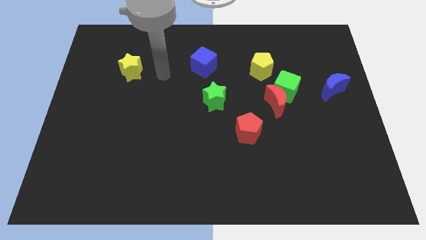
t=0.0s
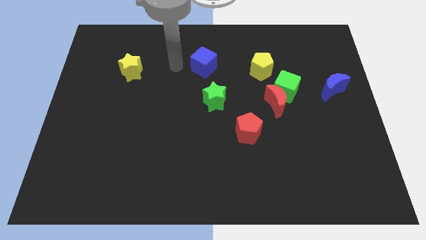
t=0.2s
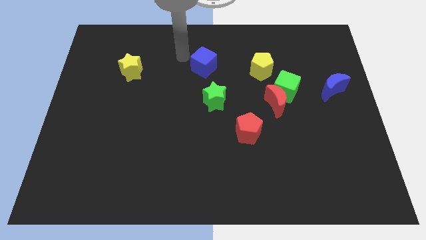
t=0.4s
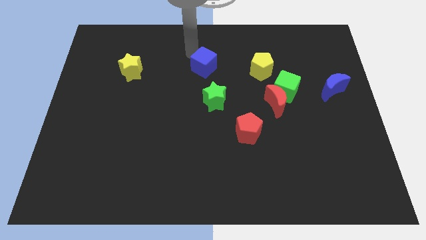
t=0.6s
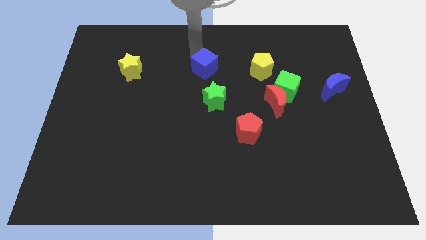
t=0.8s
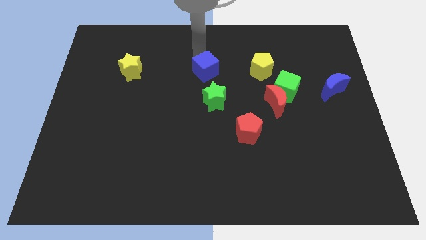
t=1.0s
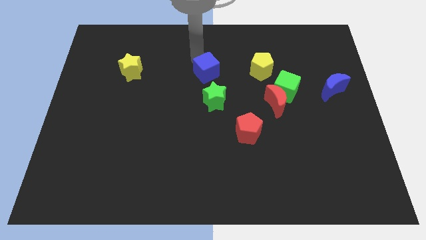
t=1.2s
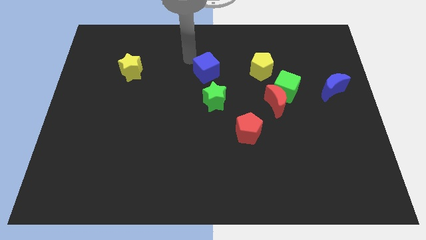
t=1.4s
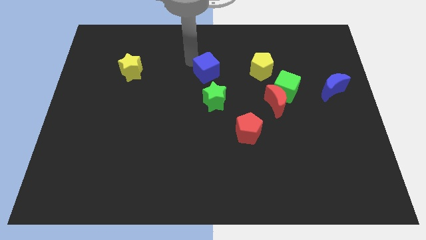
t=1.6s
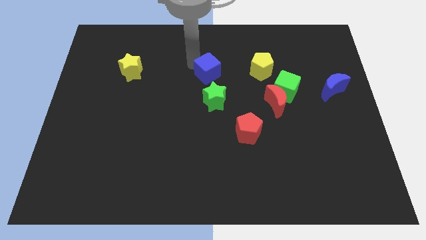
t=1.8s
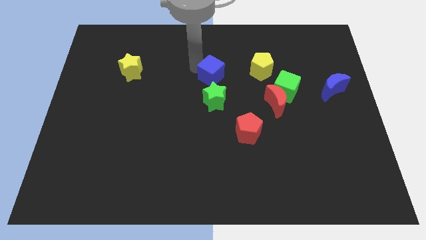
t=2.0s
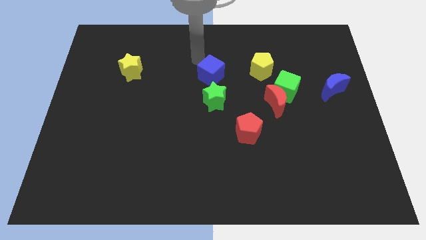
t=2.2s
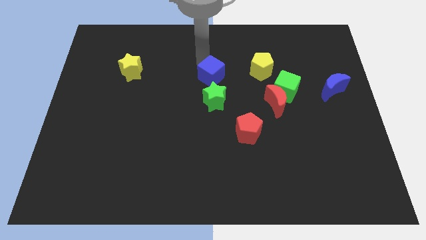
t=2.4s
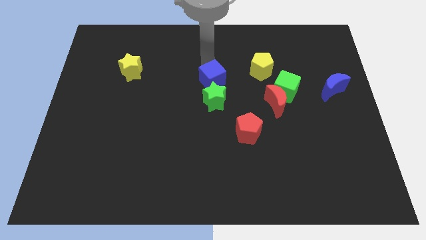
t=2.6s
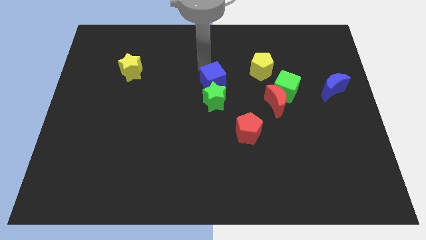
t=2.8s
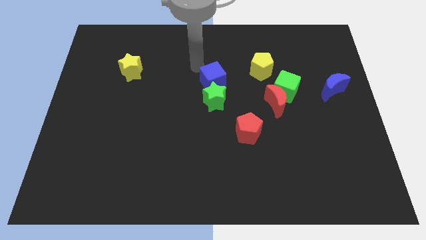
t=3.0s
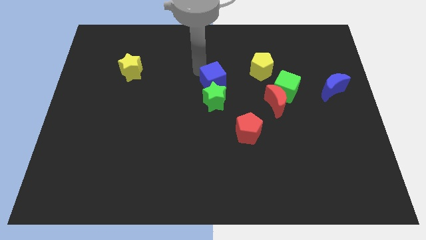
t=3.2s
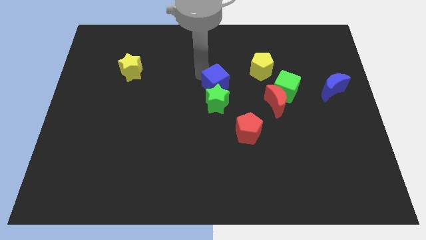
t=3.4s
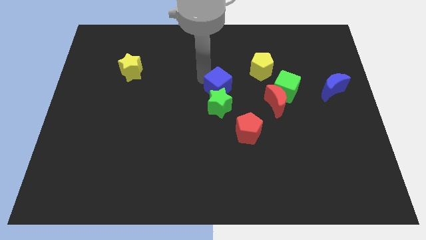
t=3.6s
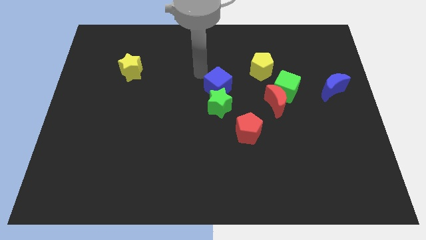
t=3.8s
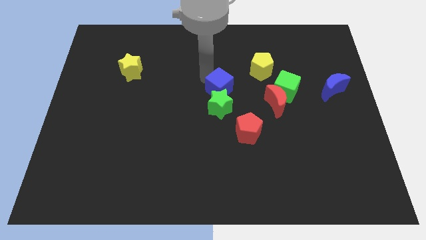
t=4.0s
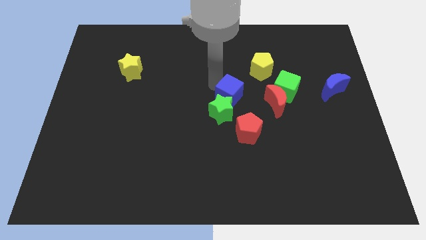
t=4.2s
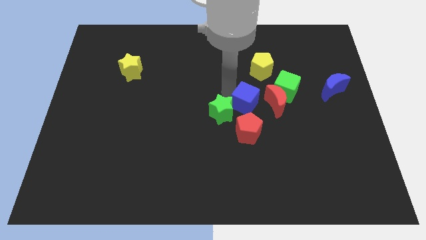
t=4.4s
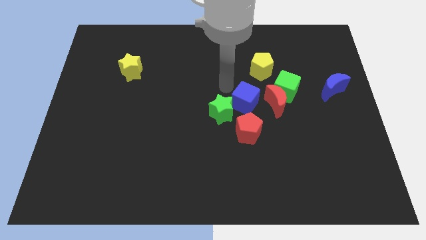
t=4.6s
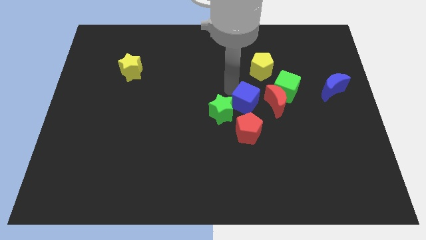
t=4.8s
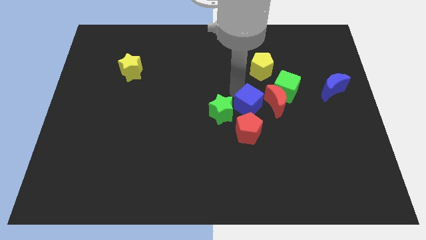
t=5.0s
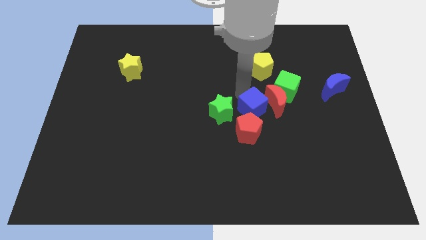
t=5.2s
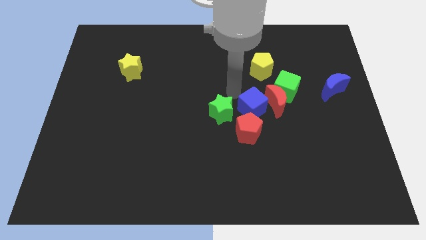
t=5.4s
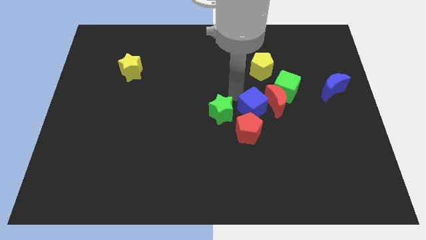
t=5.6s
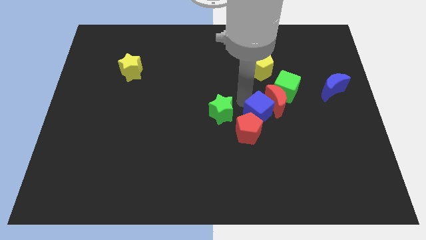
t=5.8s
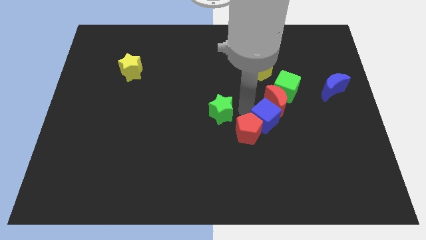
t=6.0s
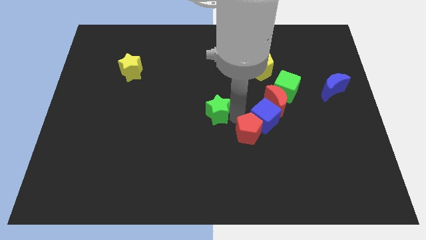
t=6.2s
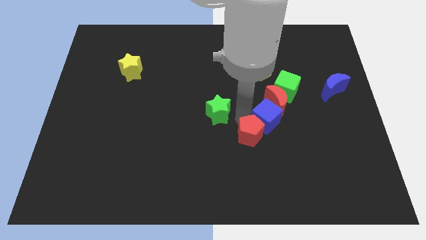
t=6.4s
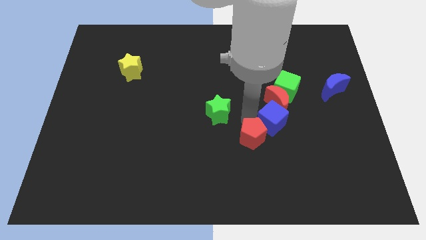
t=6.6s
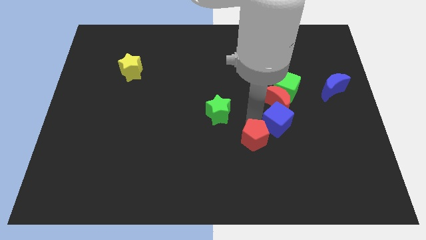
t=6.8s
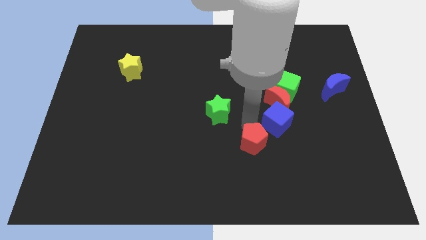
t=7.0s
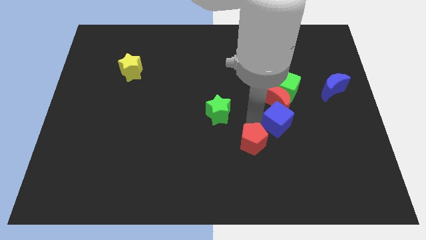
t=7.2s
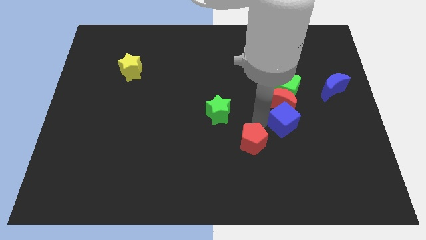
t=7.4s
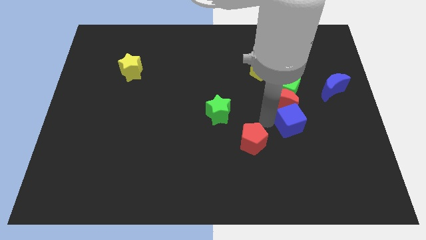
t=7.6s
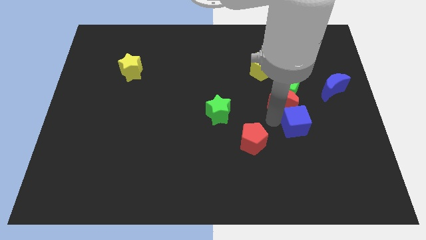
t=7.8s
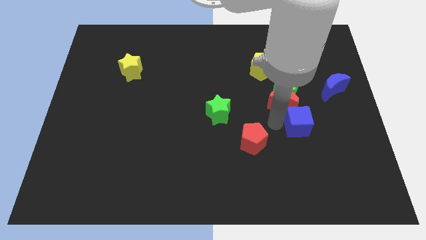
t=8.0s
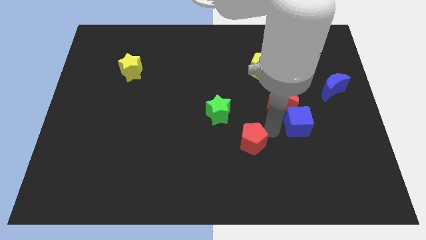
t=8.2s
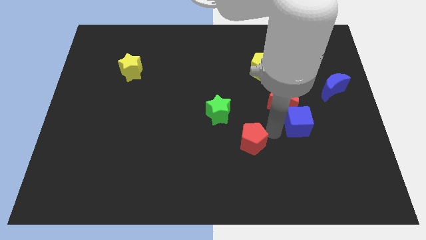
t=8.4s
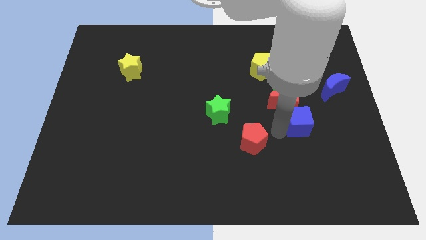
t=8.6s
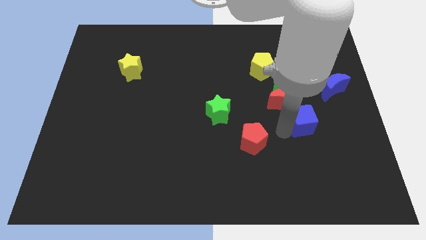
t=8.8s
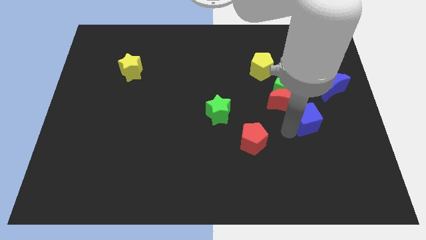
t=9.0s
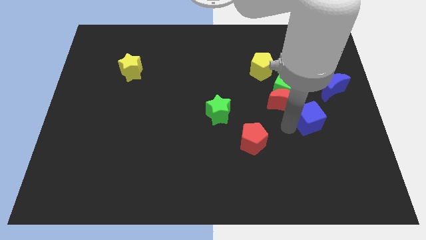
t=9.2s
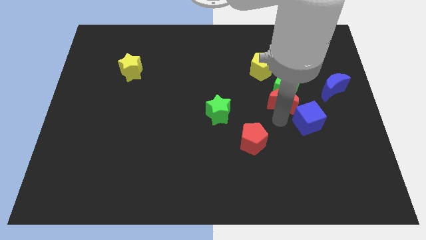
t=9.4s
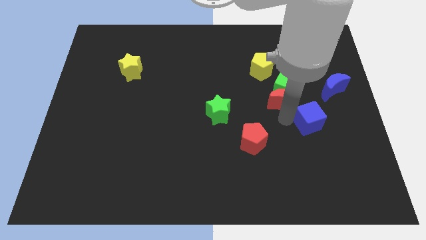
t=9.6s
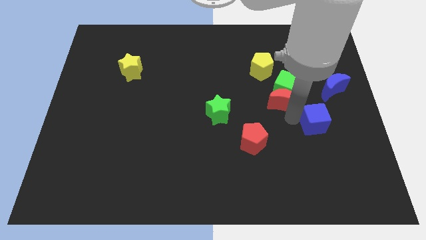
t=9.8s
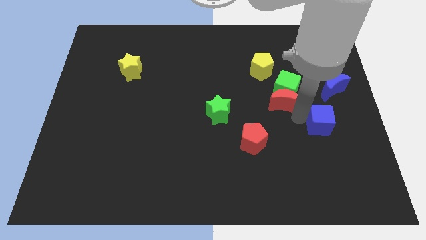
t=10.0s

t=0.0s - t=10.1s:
move the blue cube below the blue moon

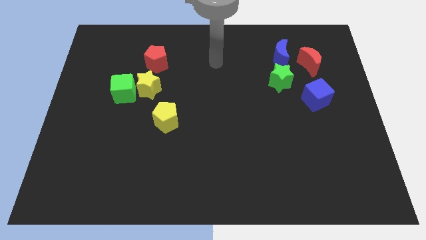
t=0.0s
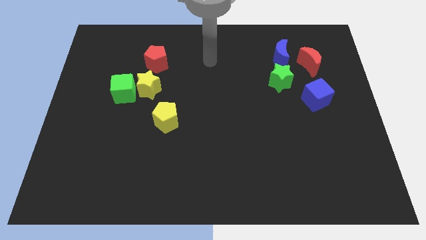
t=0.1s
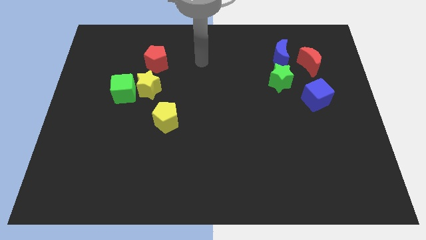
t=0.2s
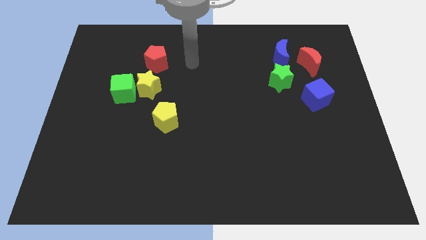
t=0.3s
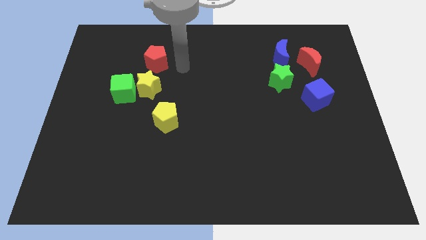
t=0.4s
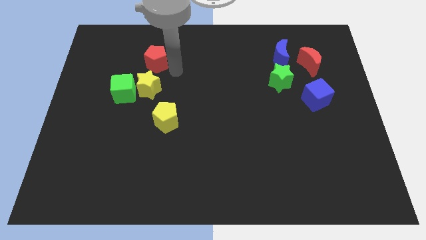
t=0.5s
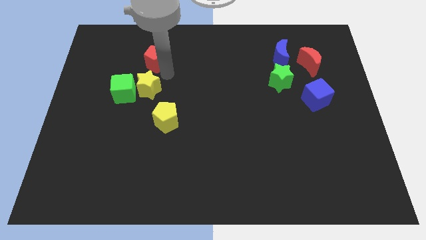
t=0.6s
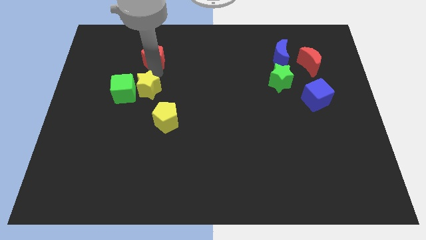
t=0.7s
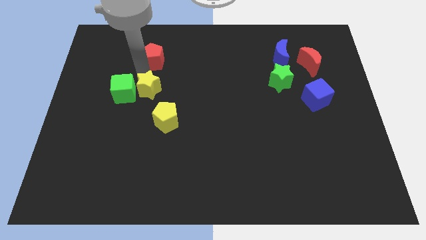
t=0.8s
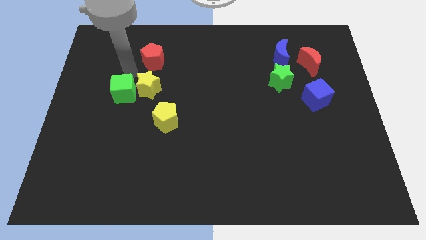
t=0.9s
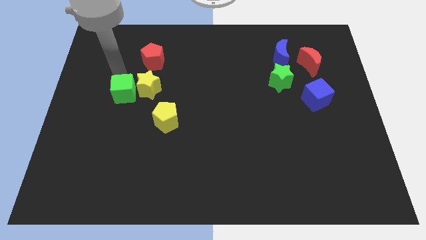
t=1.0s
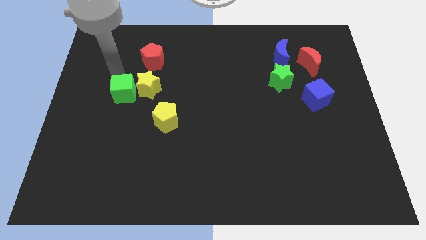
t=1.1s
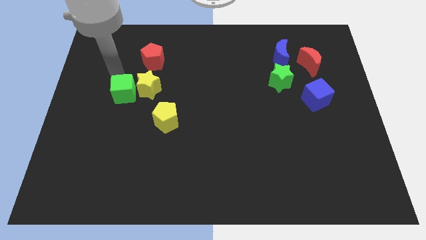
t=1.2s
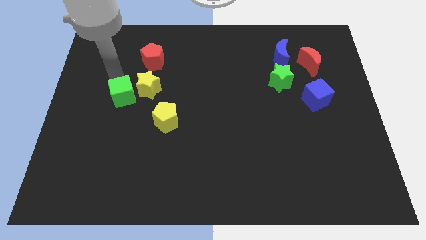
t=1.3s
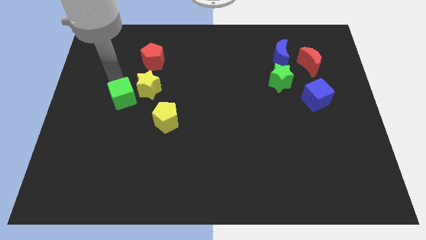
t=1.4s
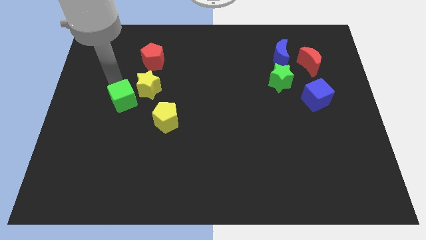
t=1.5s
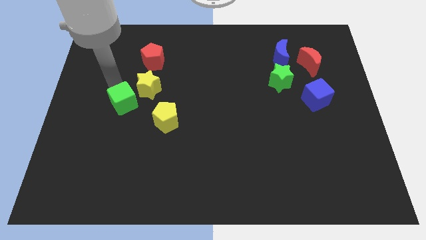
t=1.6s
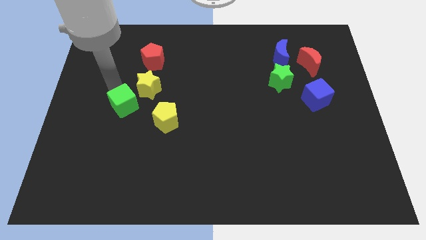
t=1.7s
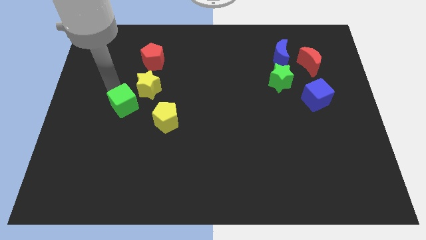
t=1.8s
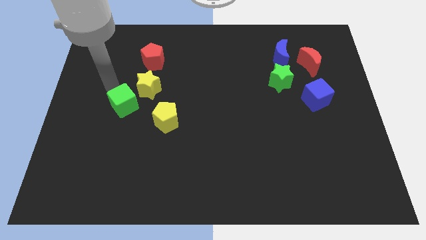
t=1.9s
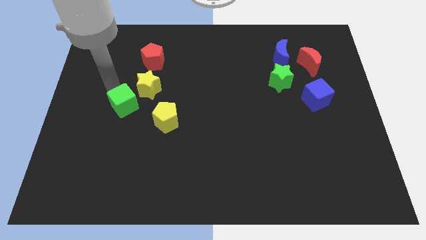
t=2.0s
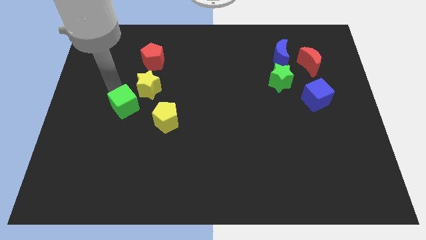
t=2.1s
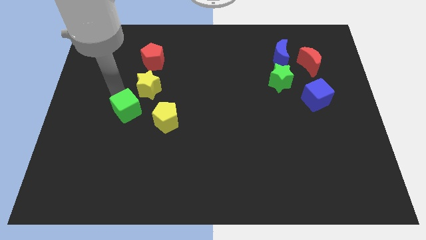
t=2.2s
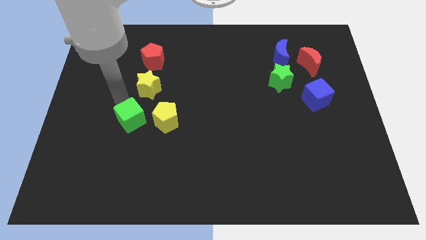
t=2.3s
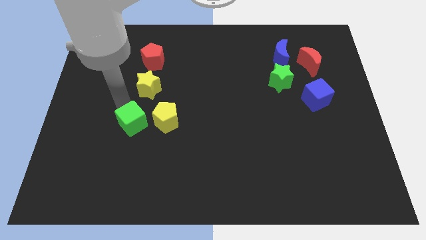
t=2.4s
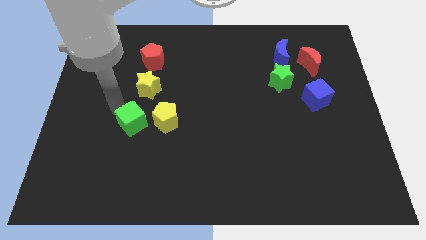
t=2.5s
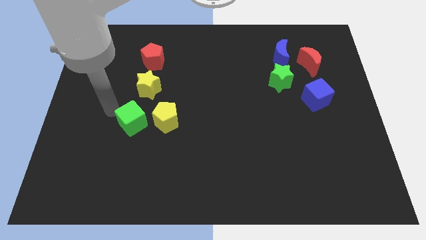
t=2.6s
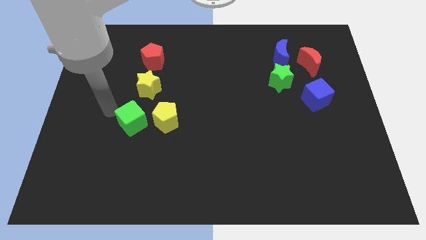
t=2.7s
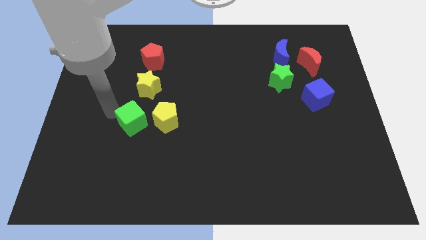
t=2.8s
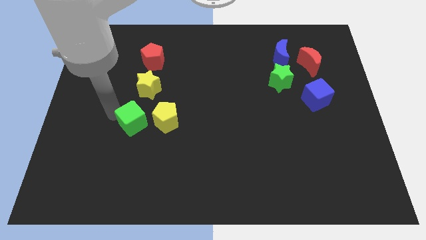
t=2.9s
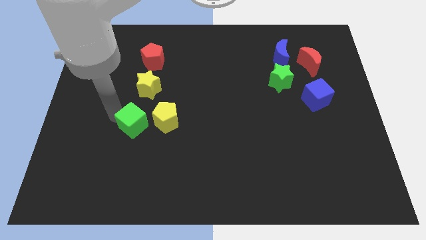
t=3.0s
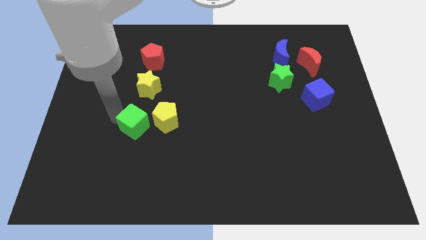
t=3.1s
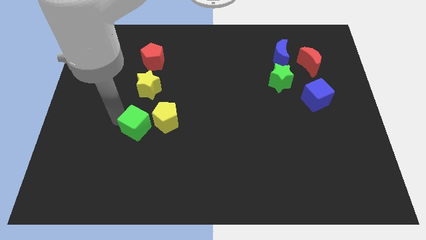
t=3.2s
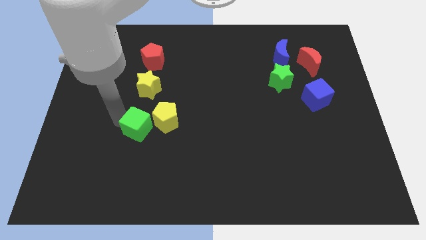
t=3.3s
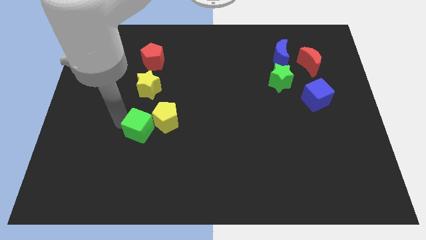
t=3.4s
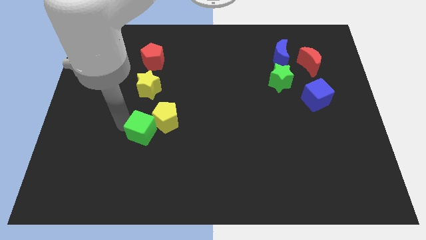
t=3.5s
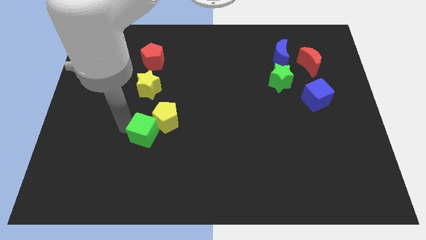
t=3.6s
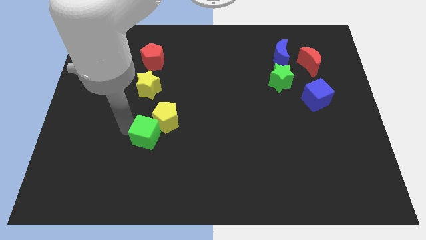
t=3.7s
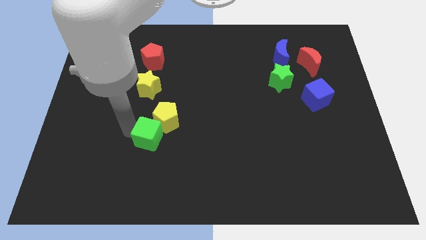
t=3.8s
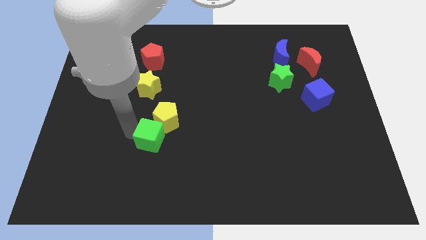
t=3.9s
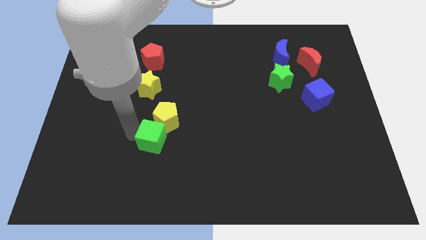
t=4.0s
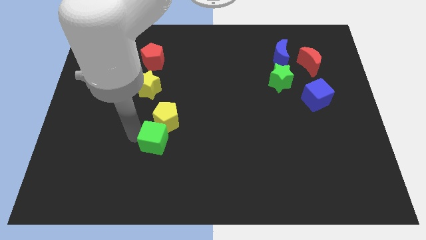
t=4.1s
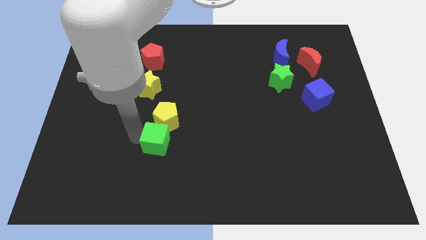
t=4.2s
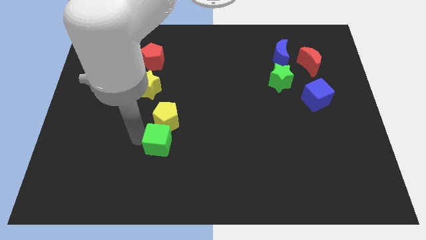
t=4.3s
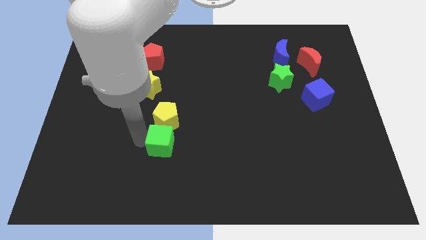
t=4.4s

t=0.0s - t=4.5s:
move the green cube to the bottom right side of the yellow pentagon
